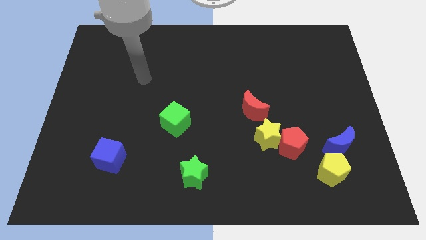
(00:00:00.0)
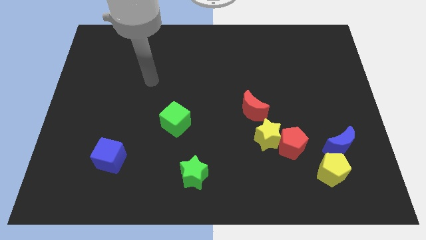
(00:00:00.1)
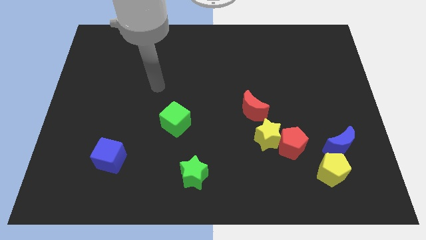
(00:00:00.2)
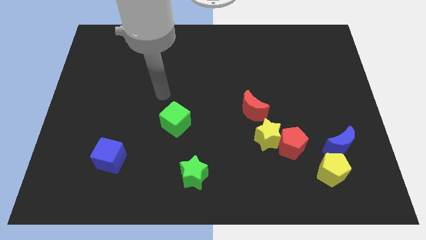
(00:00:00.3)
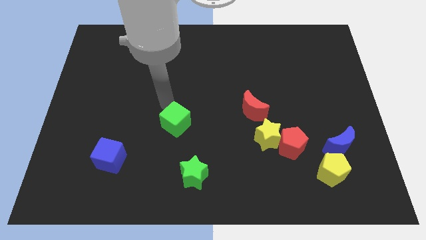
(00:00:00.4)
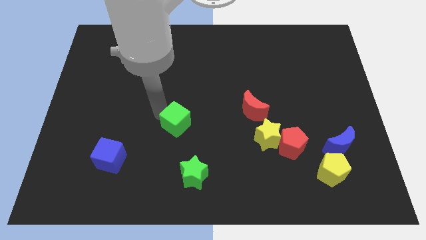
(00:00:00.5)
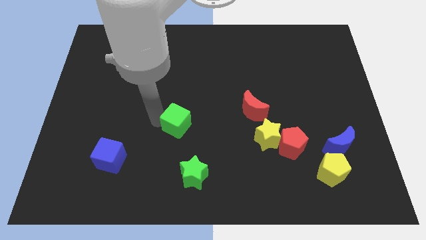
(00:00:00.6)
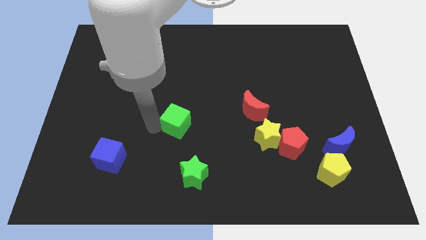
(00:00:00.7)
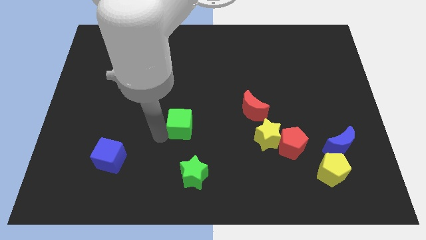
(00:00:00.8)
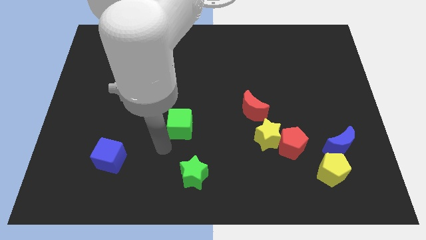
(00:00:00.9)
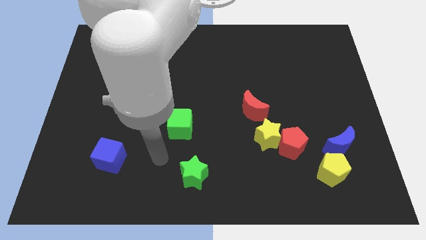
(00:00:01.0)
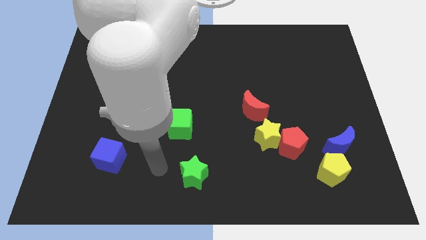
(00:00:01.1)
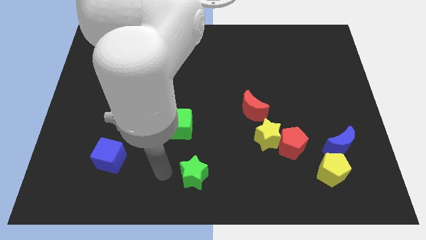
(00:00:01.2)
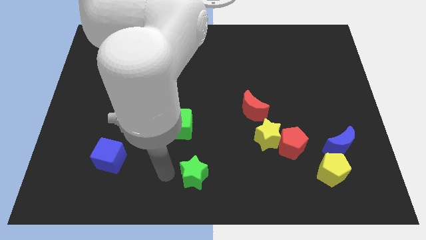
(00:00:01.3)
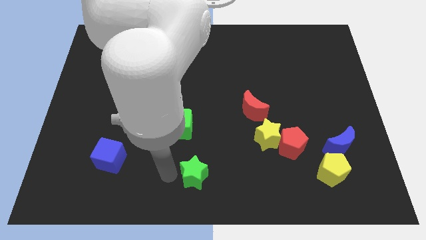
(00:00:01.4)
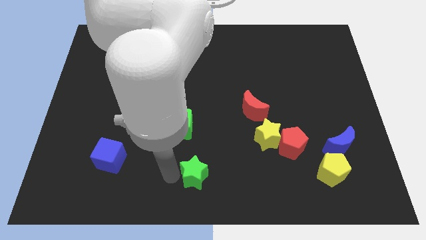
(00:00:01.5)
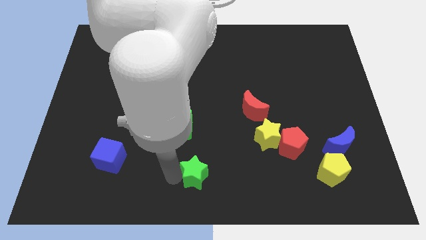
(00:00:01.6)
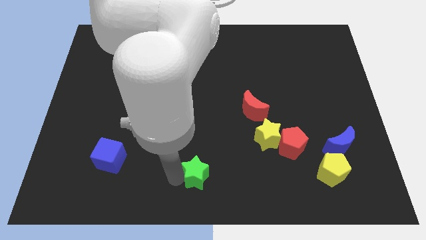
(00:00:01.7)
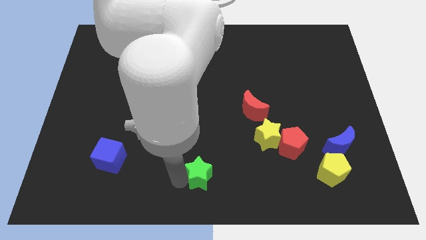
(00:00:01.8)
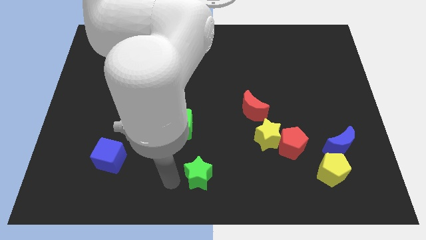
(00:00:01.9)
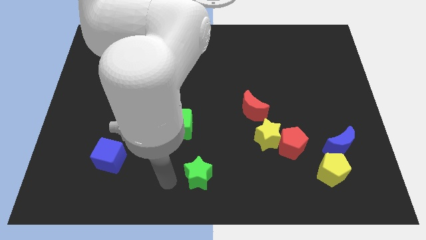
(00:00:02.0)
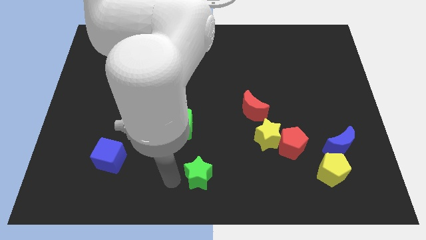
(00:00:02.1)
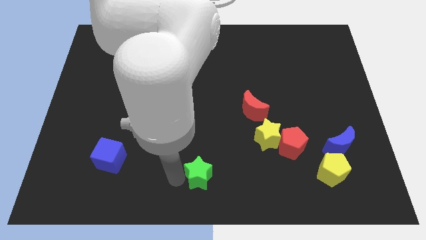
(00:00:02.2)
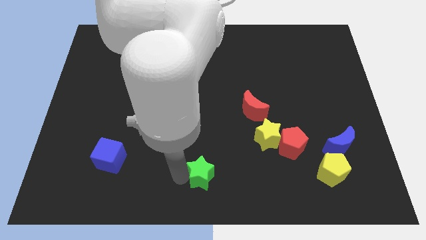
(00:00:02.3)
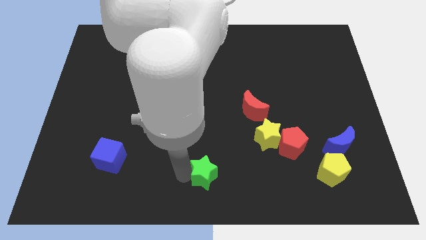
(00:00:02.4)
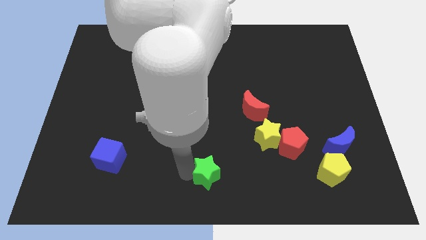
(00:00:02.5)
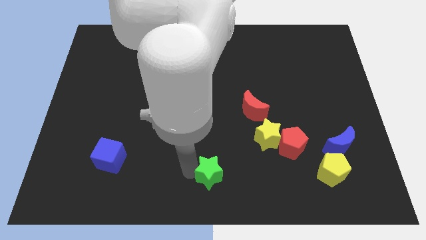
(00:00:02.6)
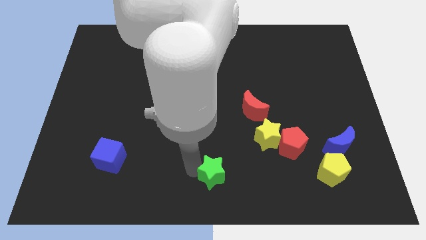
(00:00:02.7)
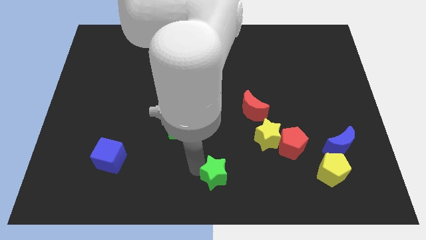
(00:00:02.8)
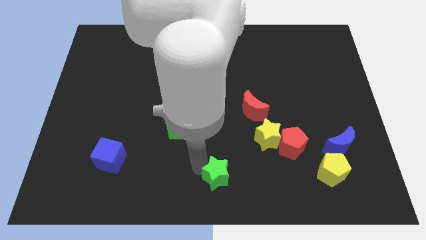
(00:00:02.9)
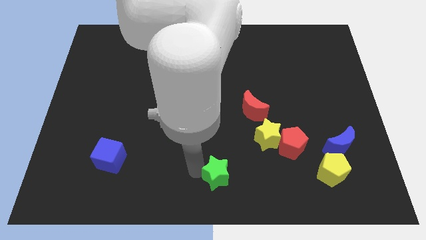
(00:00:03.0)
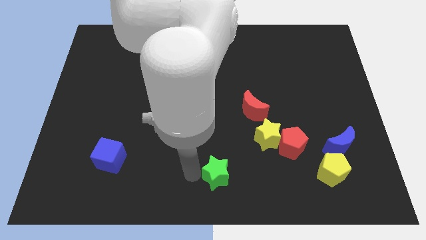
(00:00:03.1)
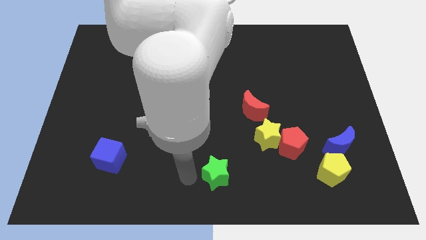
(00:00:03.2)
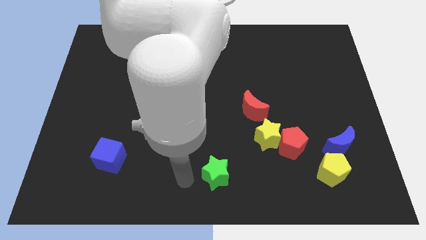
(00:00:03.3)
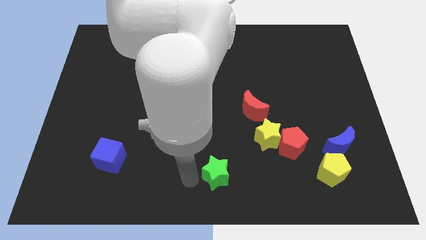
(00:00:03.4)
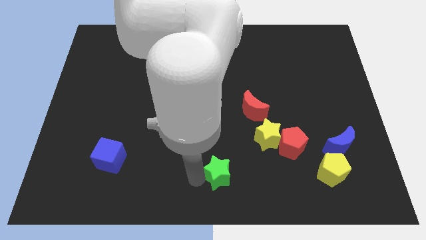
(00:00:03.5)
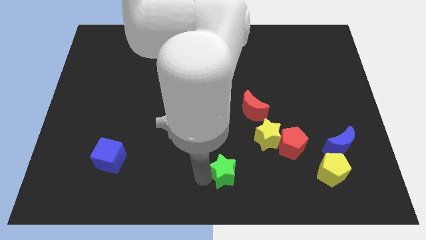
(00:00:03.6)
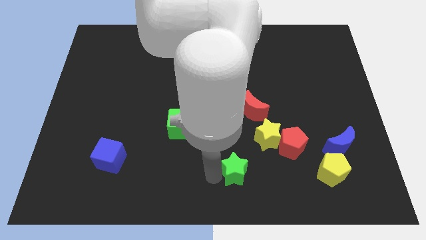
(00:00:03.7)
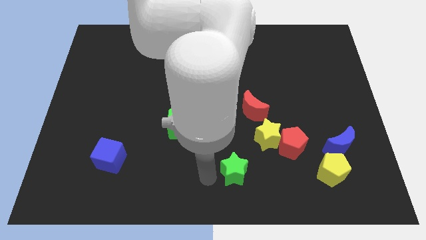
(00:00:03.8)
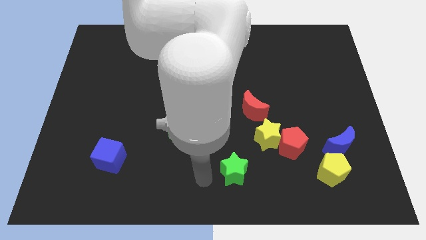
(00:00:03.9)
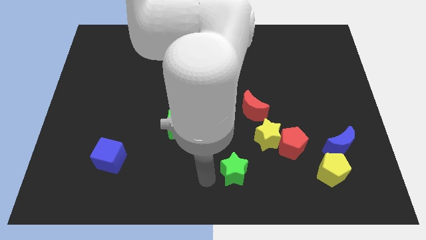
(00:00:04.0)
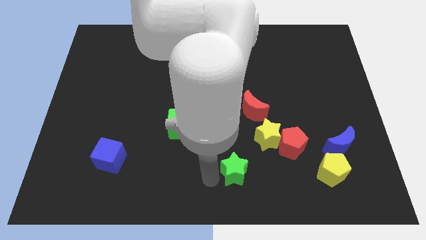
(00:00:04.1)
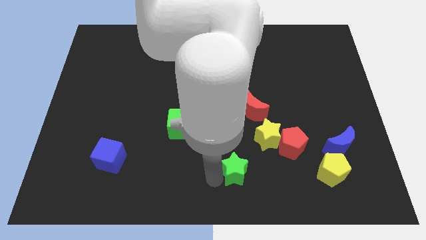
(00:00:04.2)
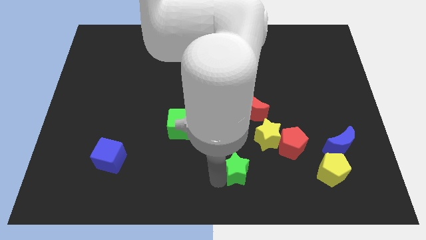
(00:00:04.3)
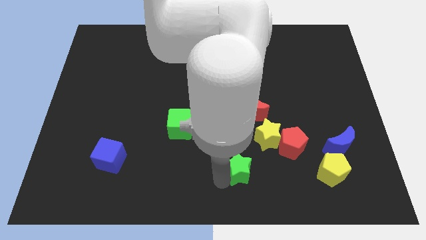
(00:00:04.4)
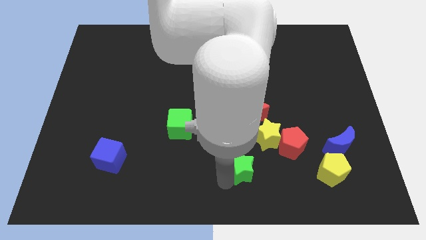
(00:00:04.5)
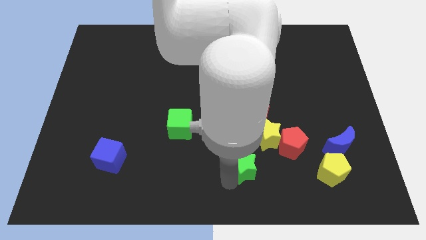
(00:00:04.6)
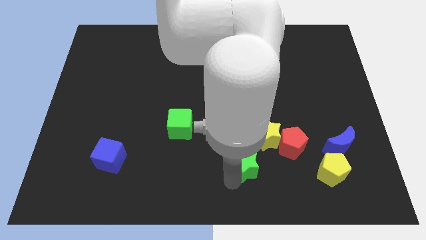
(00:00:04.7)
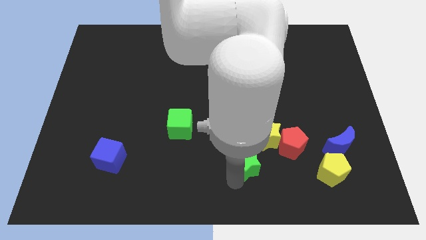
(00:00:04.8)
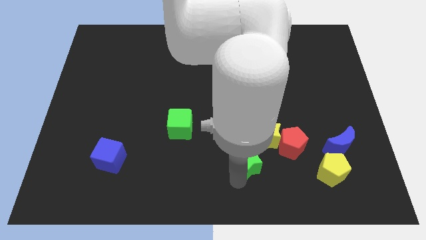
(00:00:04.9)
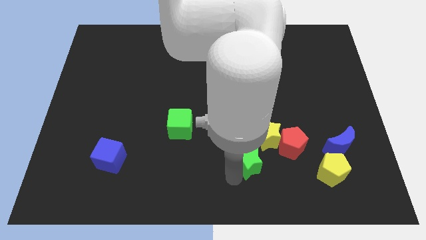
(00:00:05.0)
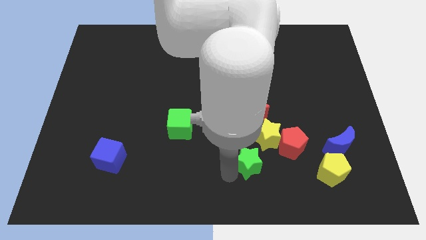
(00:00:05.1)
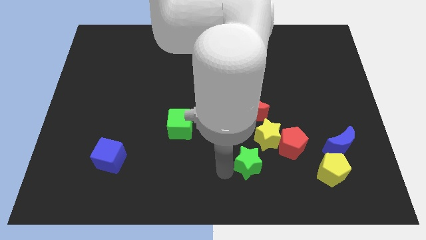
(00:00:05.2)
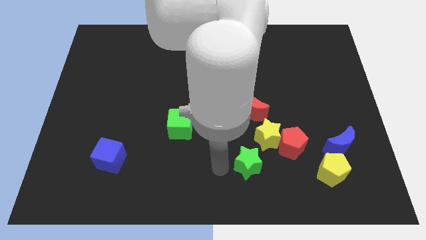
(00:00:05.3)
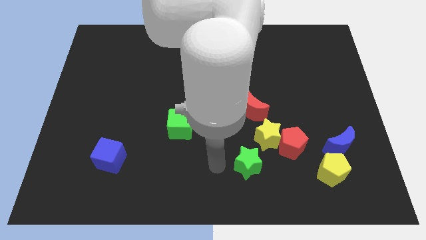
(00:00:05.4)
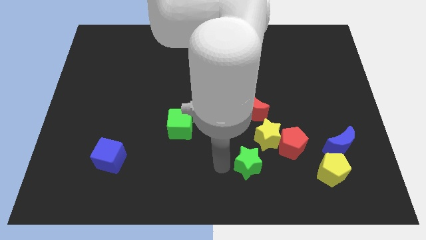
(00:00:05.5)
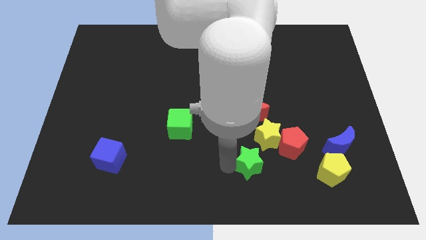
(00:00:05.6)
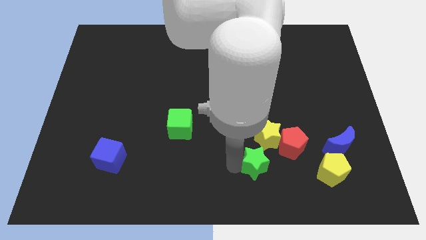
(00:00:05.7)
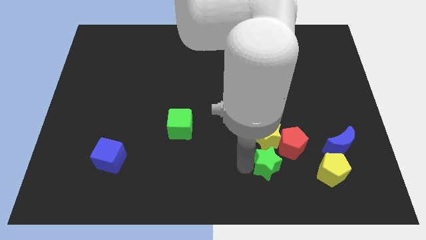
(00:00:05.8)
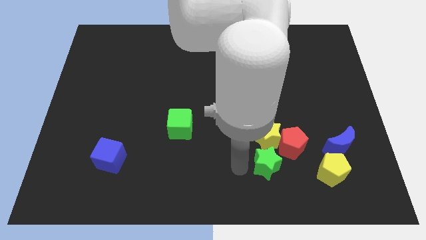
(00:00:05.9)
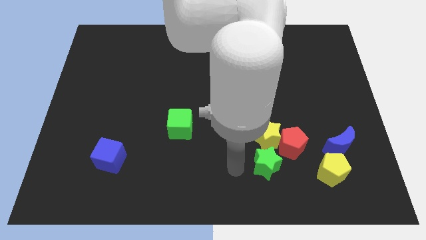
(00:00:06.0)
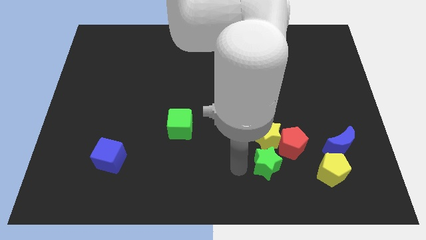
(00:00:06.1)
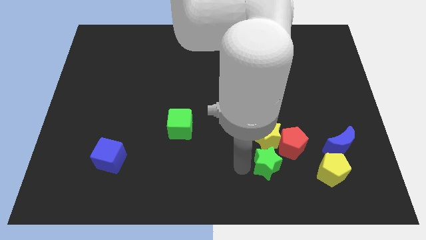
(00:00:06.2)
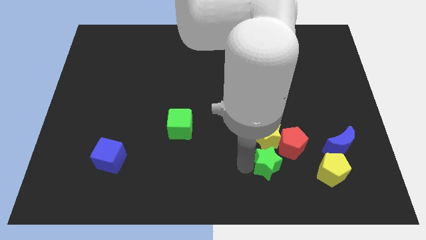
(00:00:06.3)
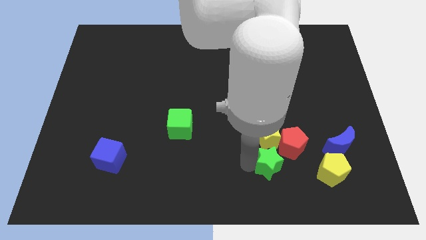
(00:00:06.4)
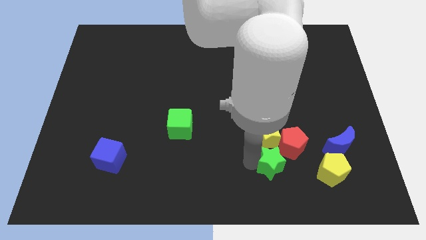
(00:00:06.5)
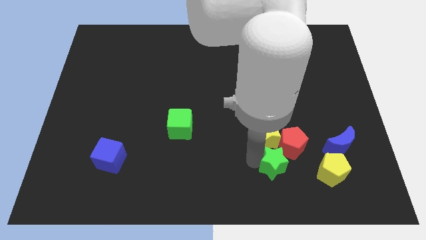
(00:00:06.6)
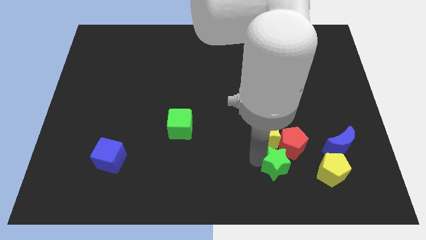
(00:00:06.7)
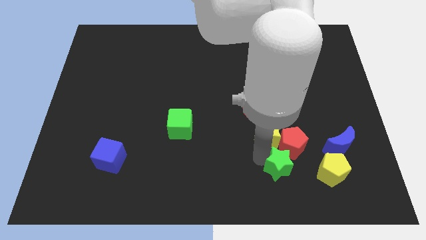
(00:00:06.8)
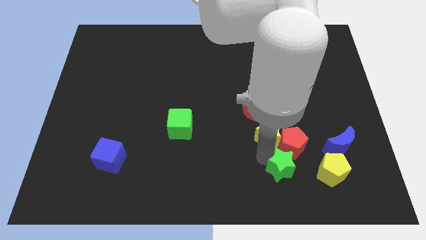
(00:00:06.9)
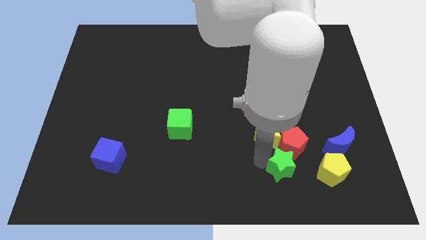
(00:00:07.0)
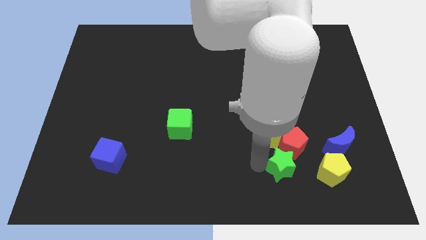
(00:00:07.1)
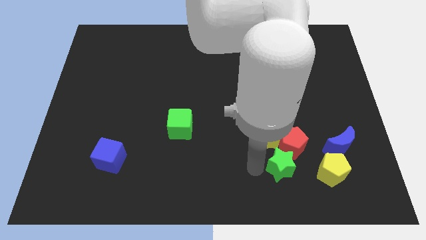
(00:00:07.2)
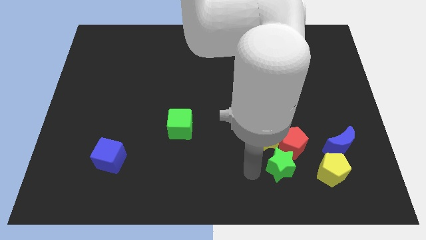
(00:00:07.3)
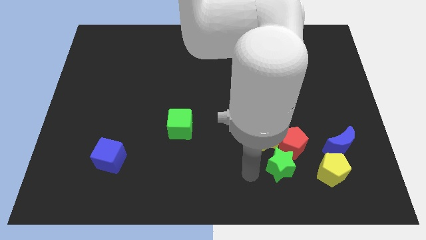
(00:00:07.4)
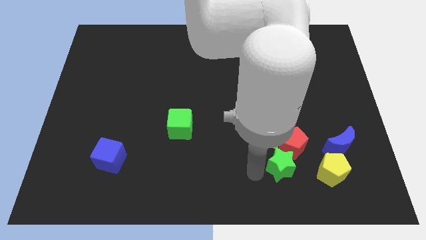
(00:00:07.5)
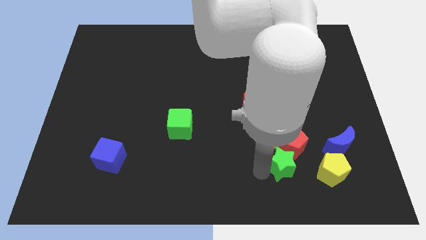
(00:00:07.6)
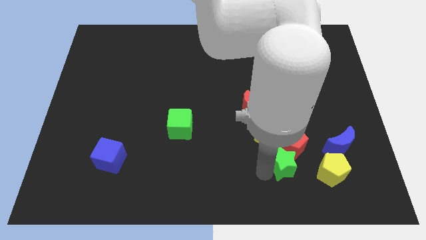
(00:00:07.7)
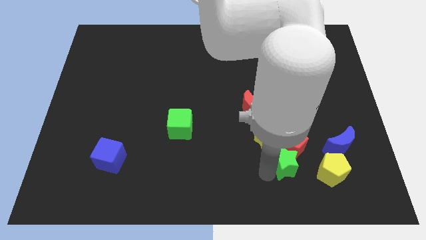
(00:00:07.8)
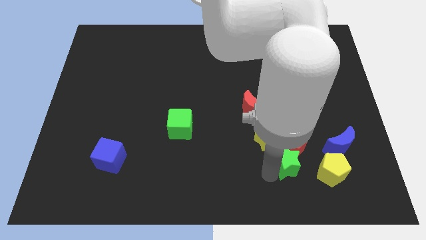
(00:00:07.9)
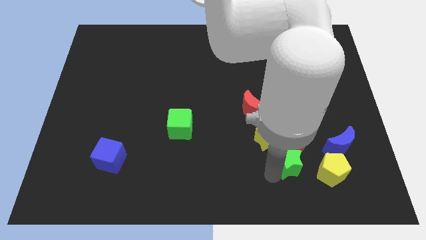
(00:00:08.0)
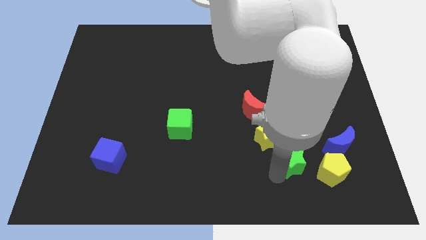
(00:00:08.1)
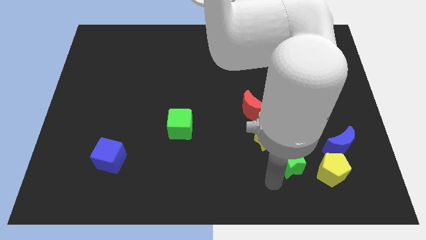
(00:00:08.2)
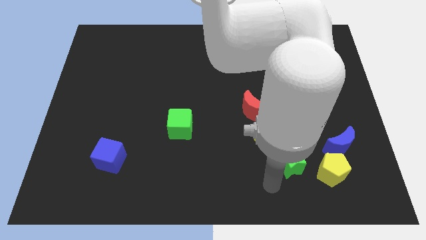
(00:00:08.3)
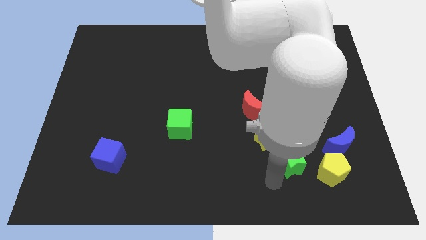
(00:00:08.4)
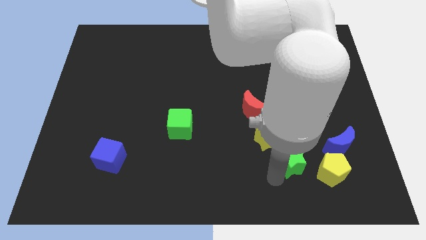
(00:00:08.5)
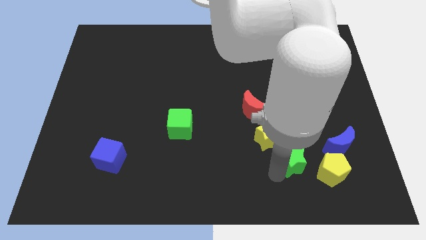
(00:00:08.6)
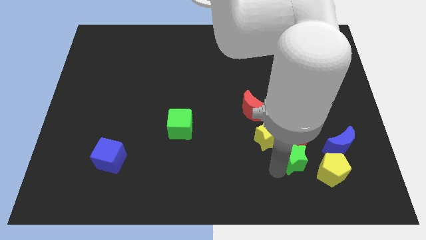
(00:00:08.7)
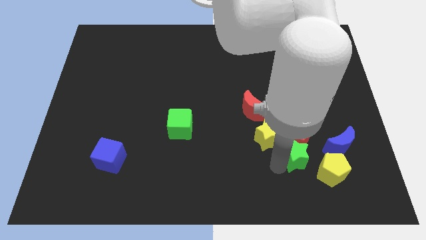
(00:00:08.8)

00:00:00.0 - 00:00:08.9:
push the green star just right of the yellow star
